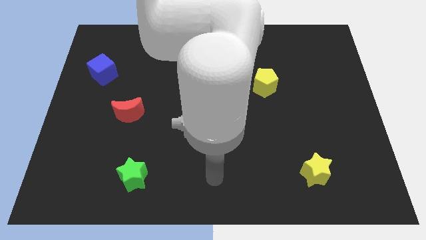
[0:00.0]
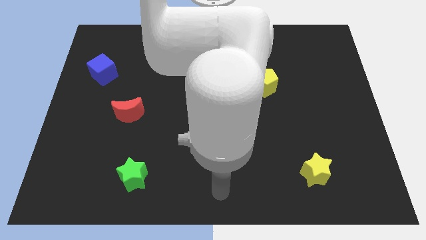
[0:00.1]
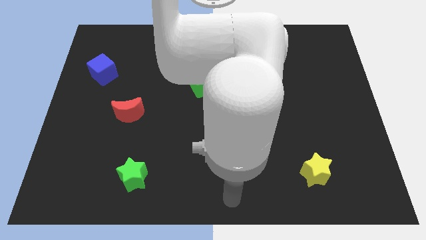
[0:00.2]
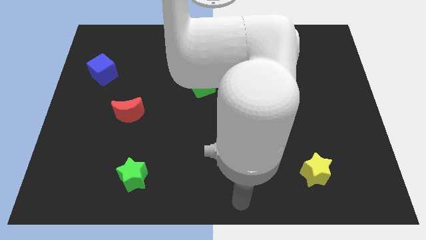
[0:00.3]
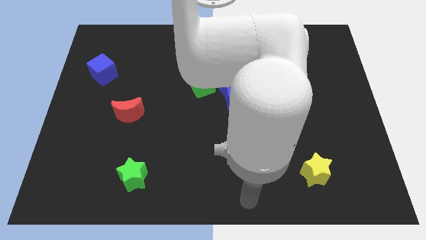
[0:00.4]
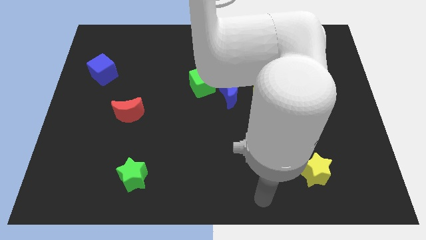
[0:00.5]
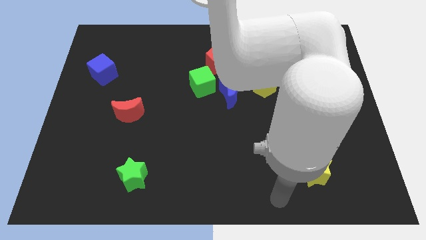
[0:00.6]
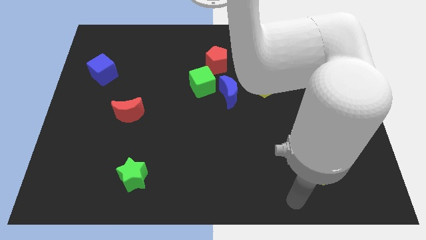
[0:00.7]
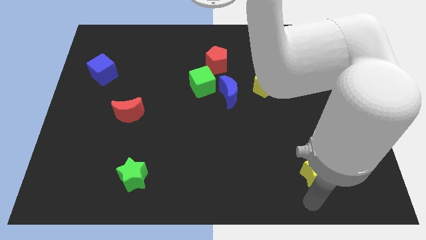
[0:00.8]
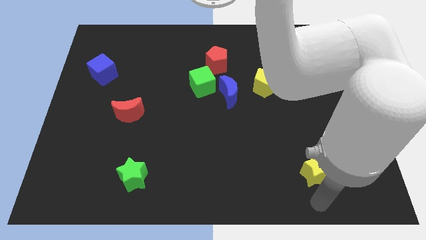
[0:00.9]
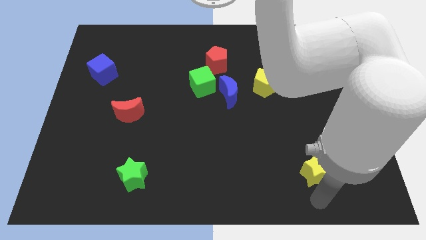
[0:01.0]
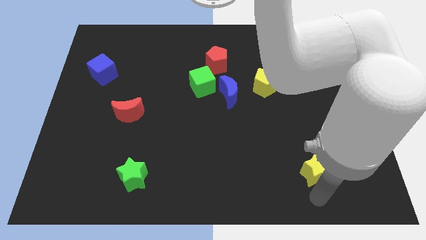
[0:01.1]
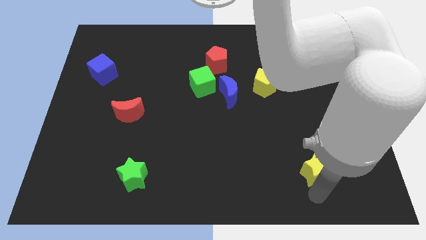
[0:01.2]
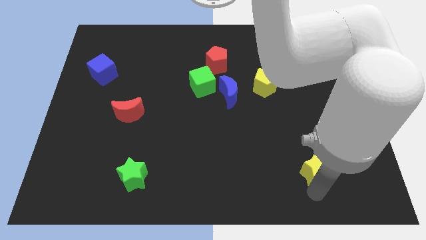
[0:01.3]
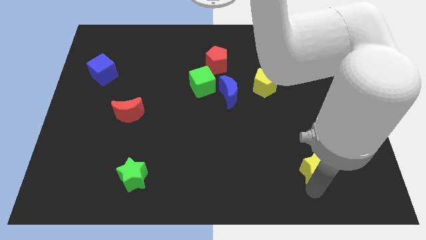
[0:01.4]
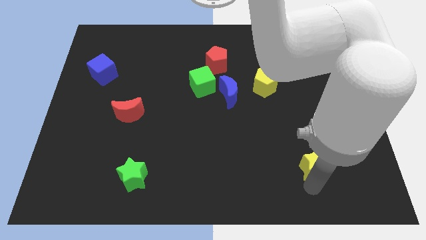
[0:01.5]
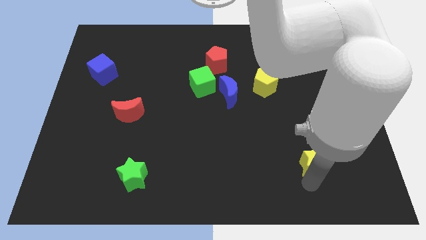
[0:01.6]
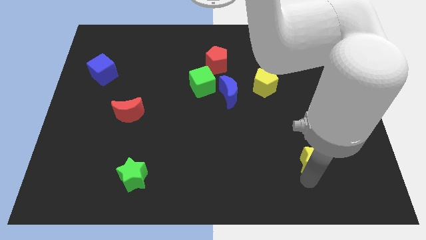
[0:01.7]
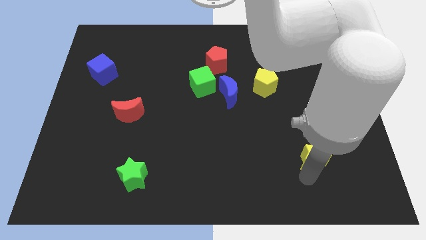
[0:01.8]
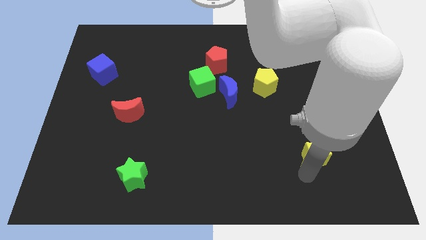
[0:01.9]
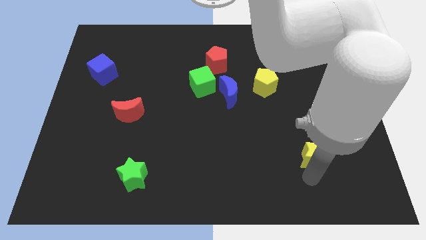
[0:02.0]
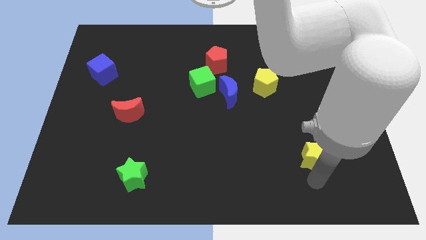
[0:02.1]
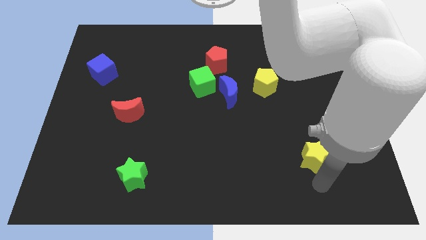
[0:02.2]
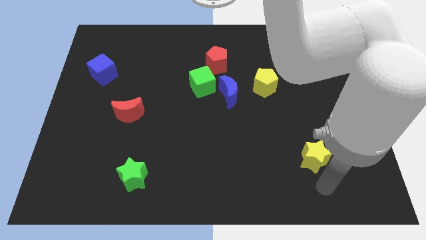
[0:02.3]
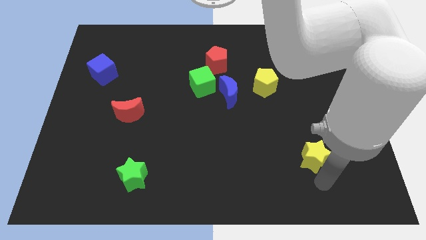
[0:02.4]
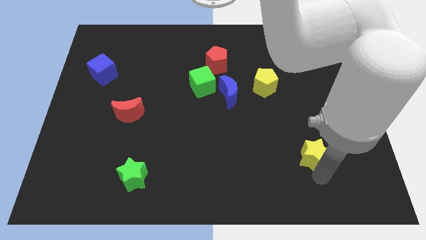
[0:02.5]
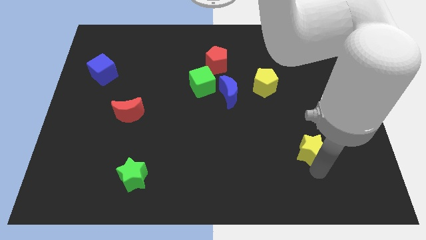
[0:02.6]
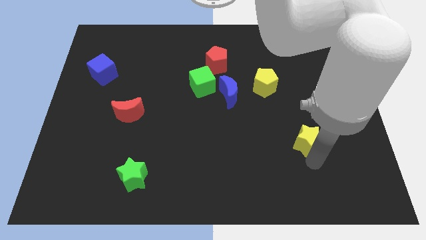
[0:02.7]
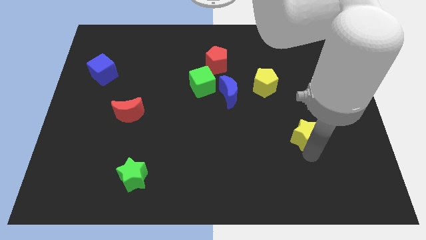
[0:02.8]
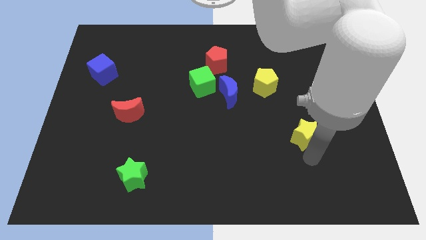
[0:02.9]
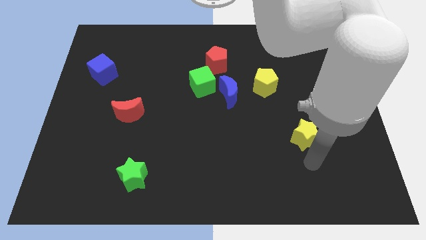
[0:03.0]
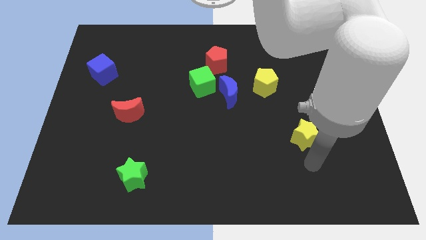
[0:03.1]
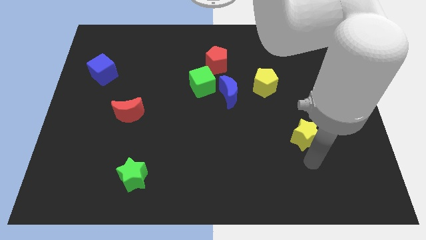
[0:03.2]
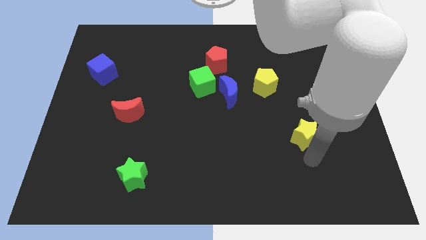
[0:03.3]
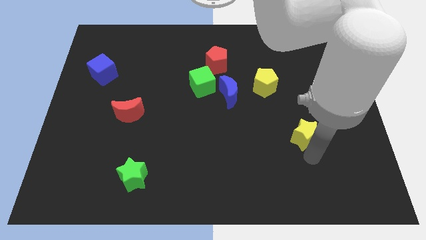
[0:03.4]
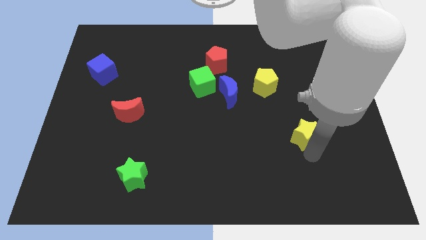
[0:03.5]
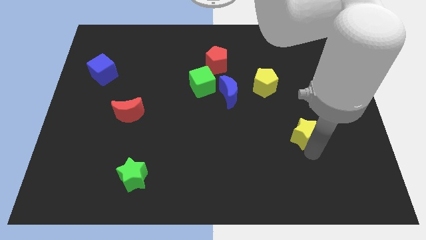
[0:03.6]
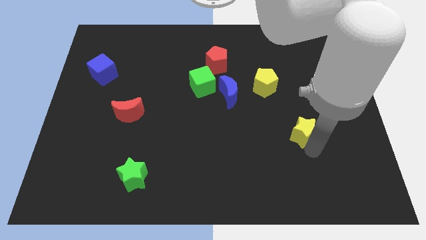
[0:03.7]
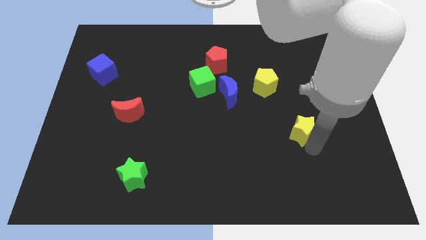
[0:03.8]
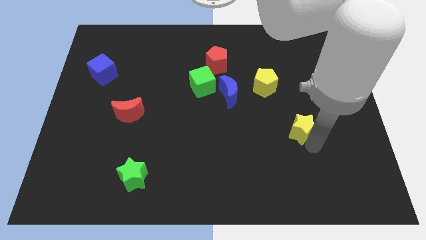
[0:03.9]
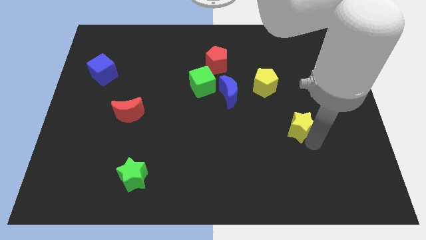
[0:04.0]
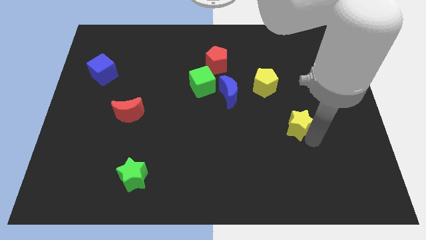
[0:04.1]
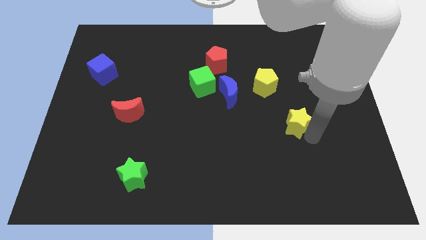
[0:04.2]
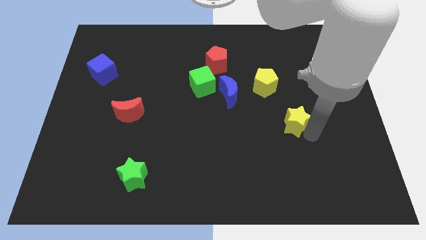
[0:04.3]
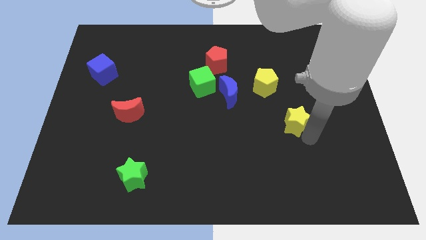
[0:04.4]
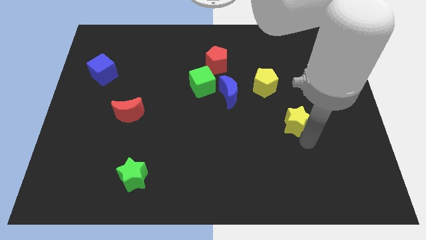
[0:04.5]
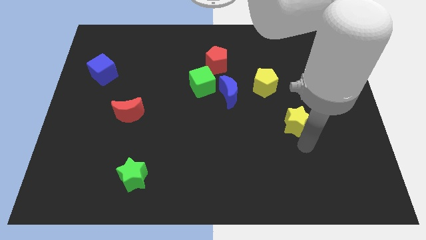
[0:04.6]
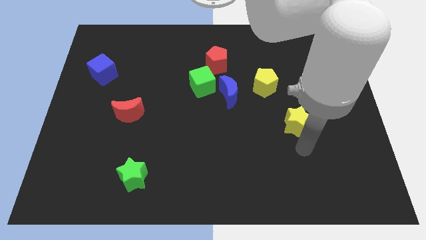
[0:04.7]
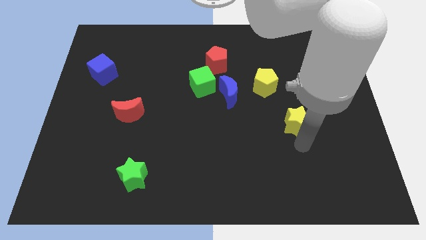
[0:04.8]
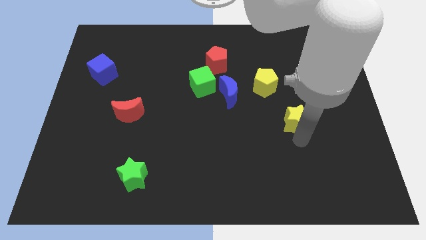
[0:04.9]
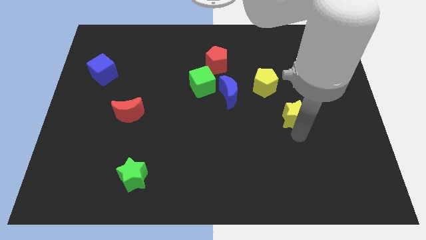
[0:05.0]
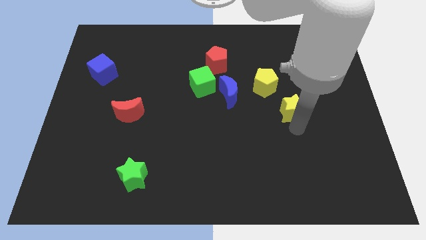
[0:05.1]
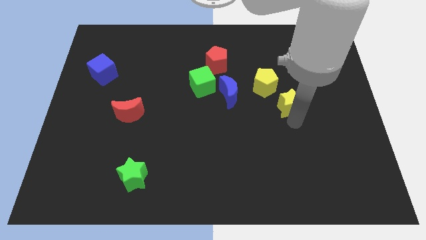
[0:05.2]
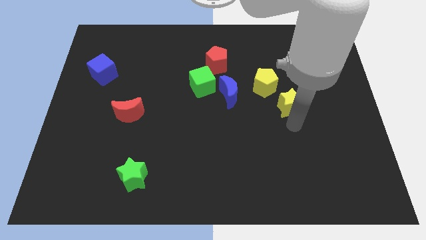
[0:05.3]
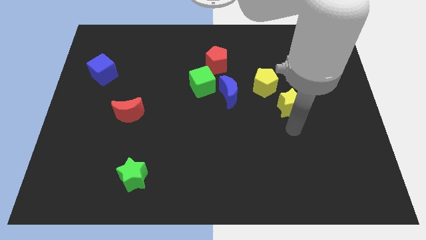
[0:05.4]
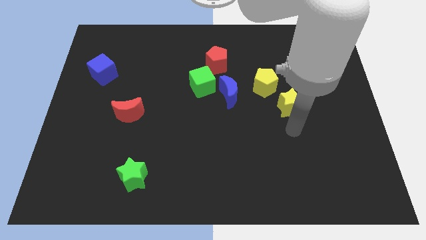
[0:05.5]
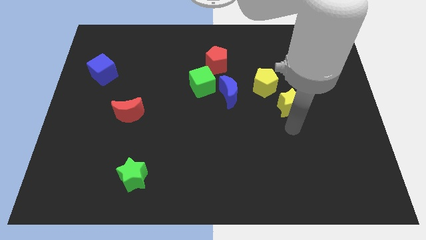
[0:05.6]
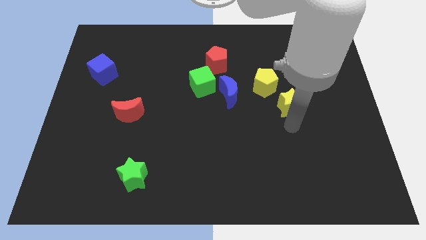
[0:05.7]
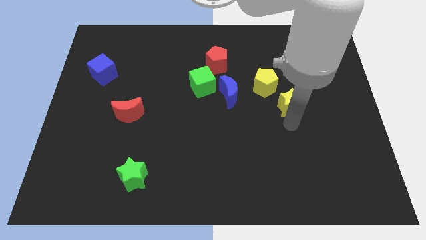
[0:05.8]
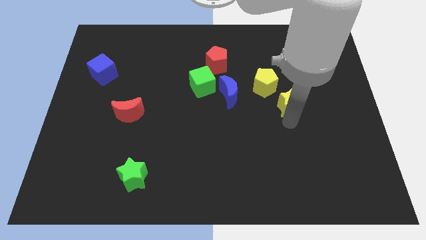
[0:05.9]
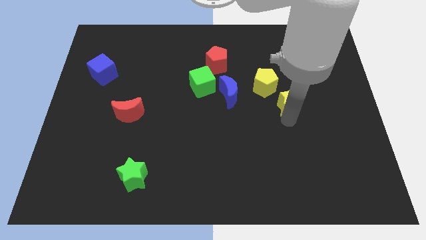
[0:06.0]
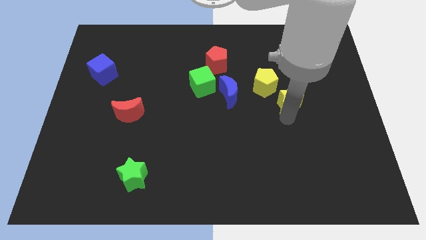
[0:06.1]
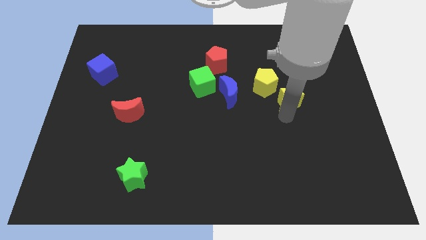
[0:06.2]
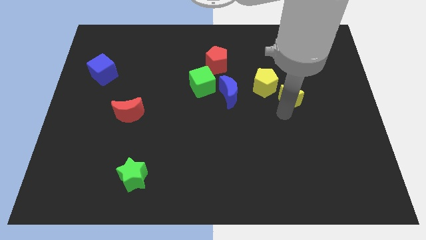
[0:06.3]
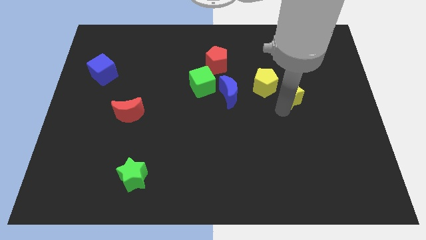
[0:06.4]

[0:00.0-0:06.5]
move the yellow star up

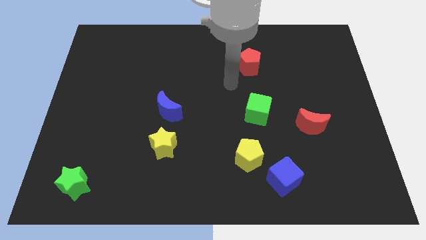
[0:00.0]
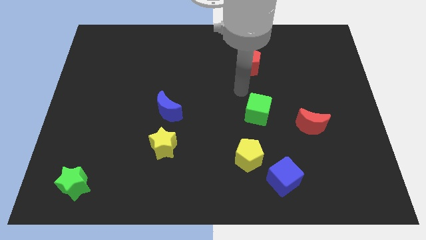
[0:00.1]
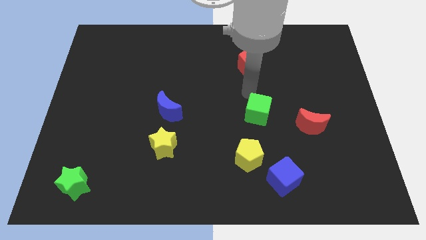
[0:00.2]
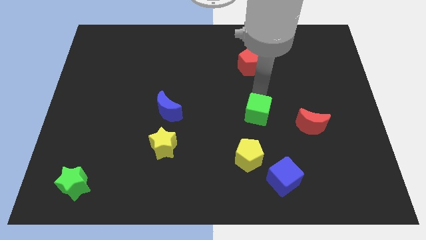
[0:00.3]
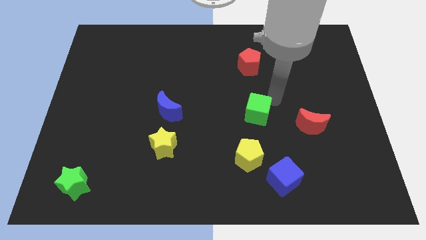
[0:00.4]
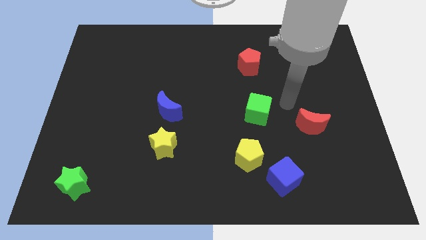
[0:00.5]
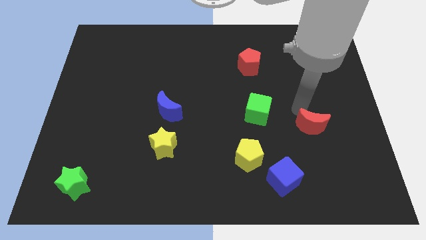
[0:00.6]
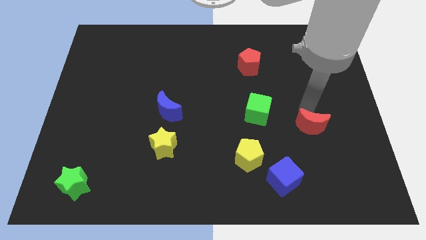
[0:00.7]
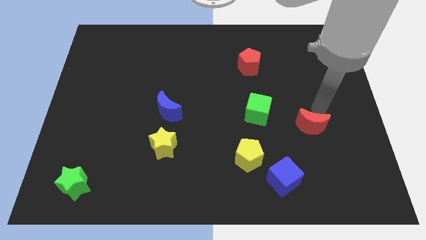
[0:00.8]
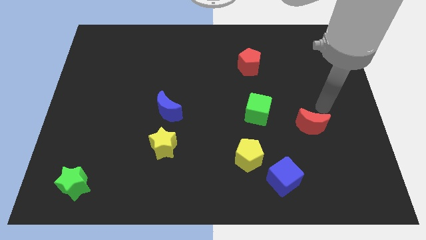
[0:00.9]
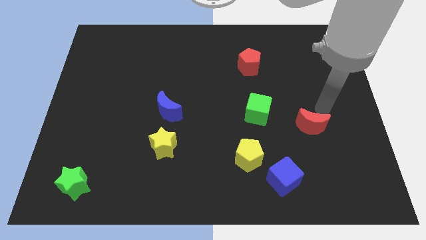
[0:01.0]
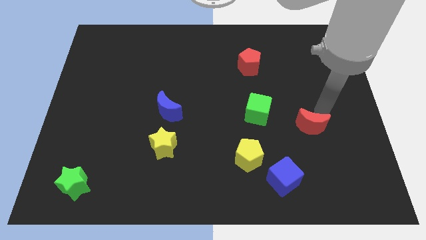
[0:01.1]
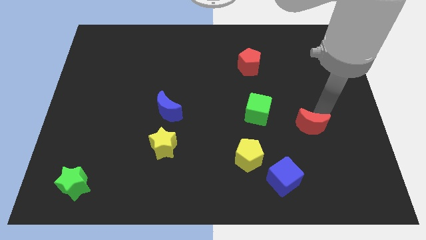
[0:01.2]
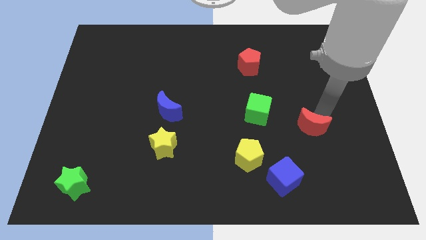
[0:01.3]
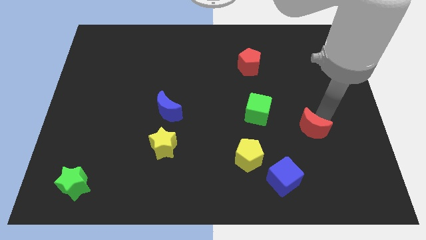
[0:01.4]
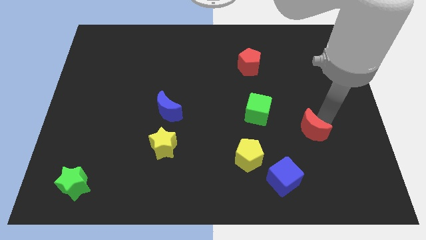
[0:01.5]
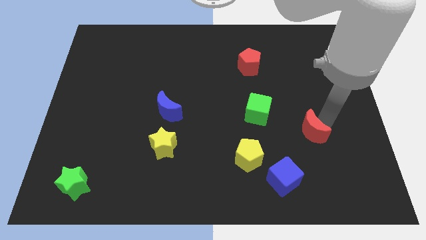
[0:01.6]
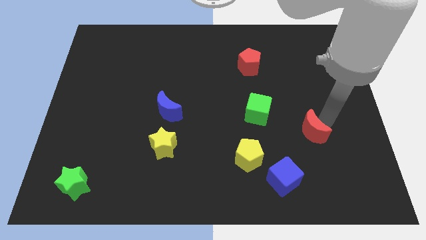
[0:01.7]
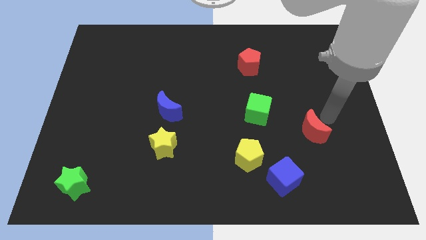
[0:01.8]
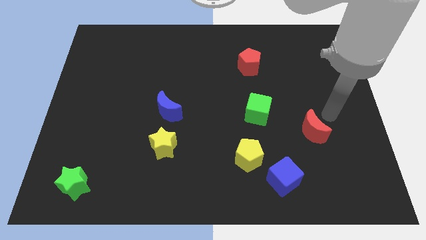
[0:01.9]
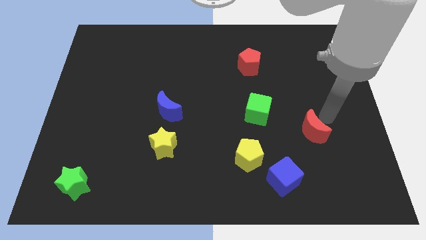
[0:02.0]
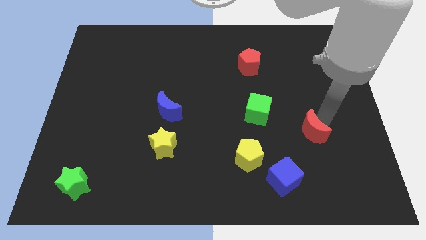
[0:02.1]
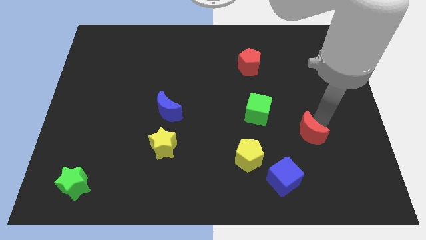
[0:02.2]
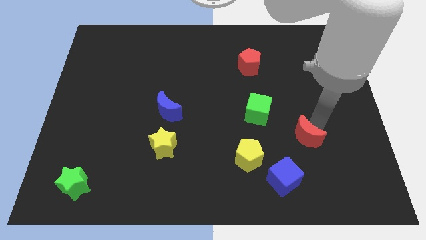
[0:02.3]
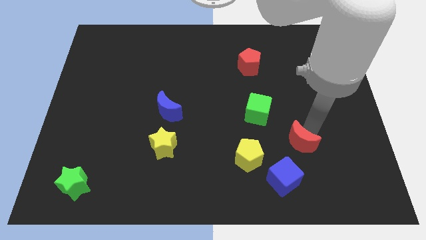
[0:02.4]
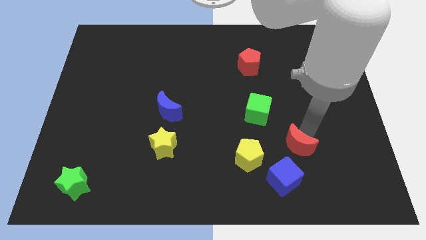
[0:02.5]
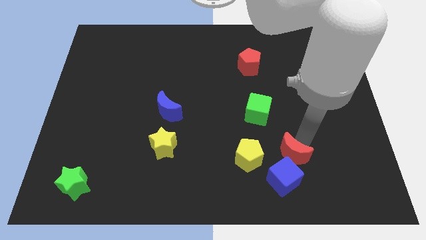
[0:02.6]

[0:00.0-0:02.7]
slide the red moon down and left diagonally somewhat
